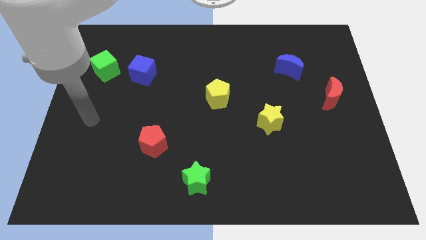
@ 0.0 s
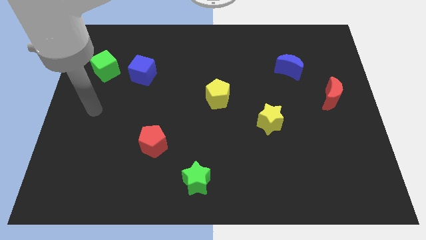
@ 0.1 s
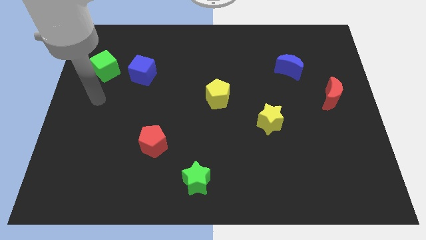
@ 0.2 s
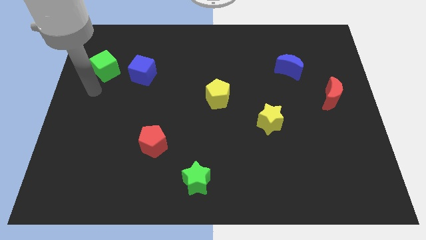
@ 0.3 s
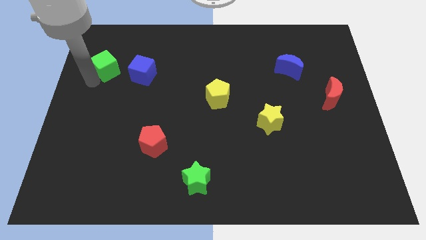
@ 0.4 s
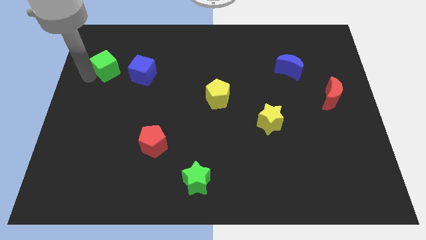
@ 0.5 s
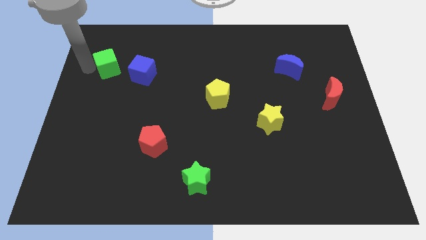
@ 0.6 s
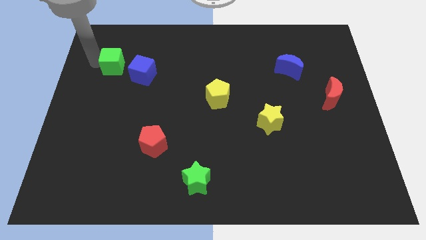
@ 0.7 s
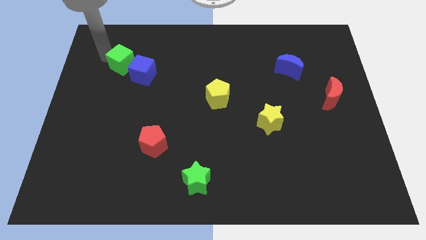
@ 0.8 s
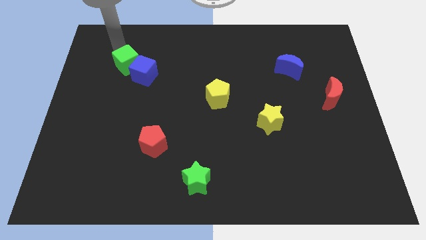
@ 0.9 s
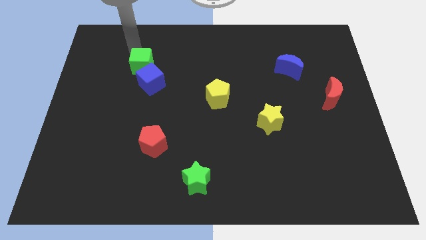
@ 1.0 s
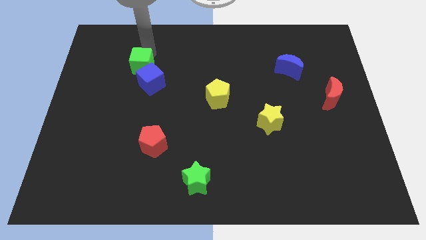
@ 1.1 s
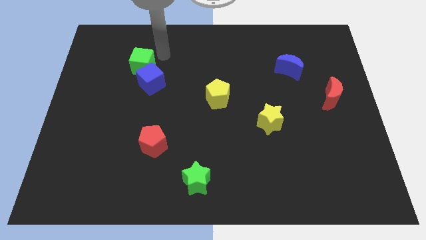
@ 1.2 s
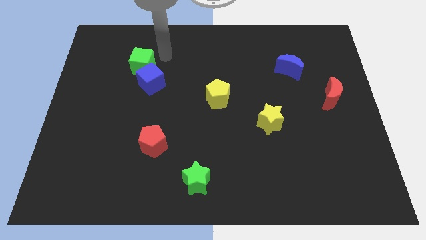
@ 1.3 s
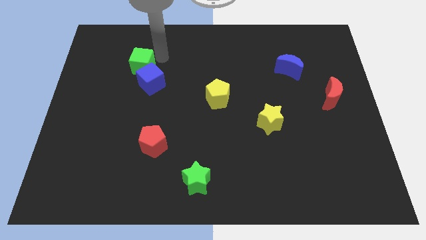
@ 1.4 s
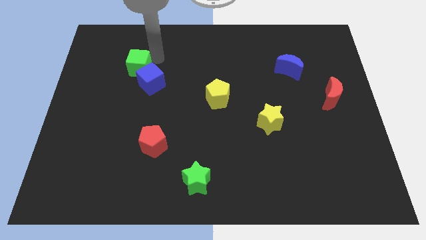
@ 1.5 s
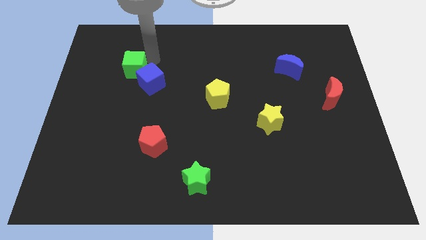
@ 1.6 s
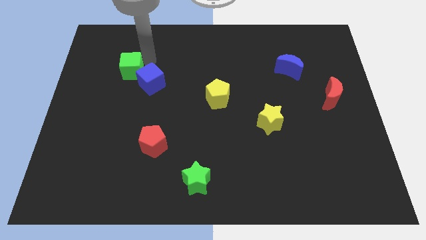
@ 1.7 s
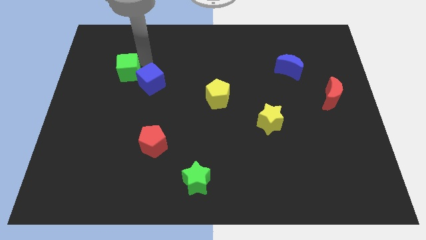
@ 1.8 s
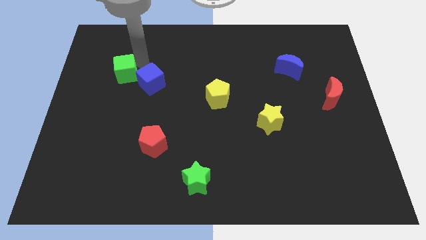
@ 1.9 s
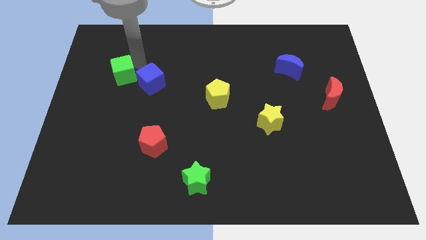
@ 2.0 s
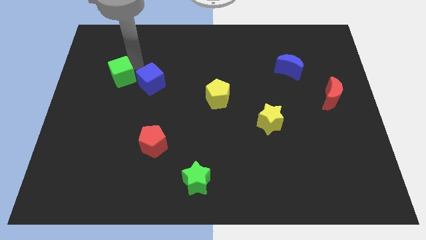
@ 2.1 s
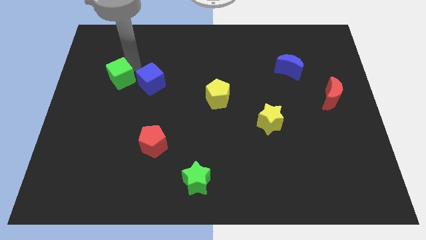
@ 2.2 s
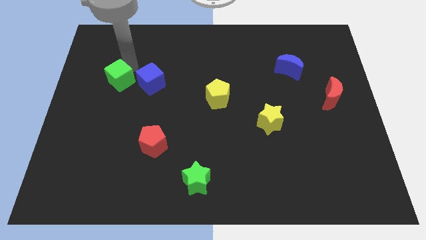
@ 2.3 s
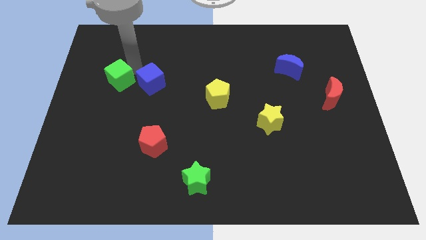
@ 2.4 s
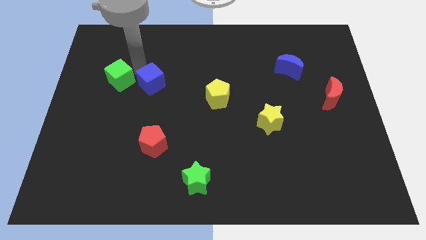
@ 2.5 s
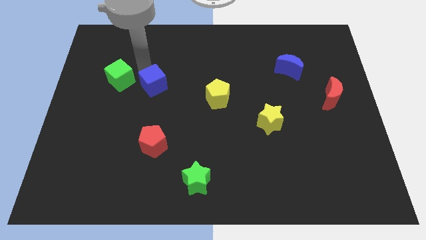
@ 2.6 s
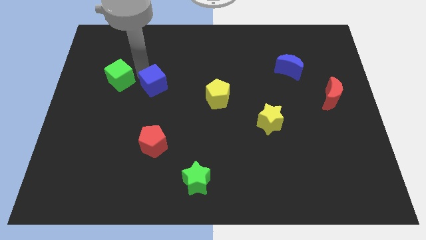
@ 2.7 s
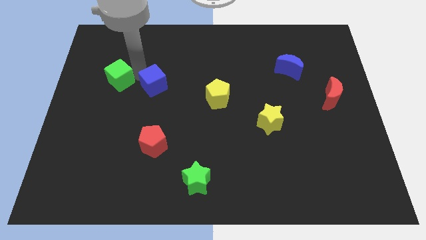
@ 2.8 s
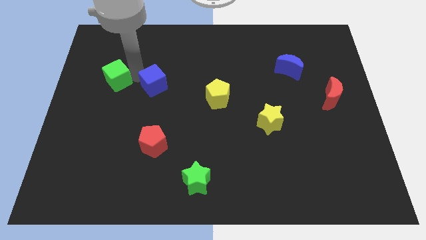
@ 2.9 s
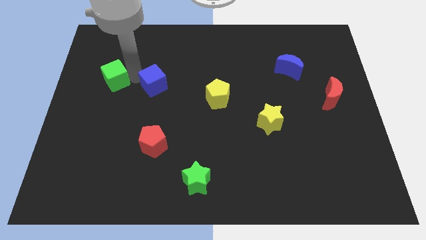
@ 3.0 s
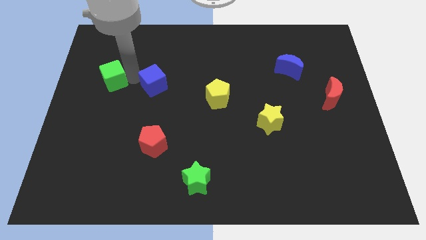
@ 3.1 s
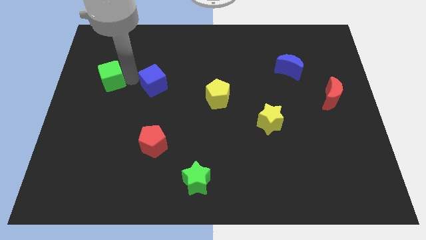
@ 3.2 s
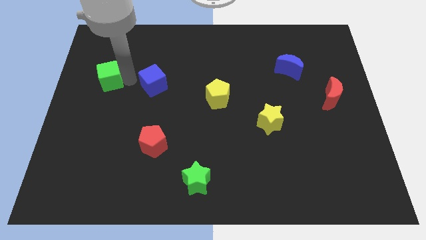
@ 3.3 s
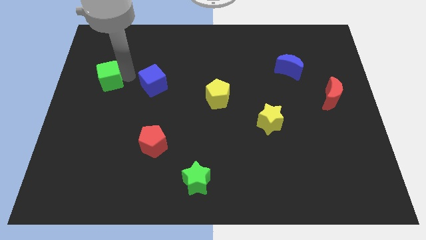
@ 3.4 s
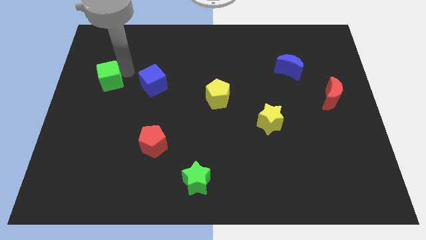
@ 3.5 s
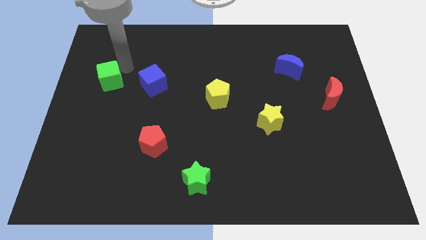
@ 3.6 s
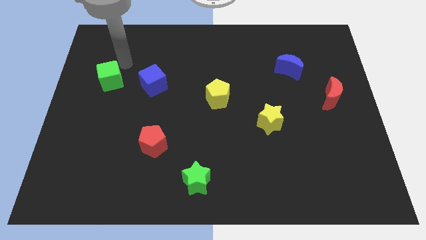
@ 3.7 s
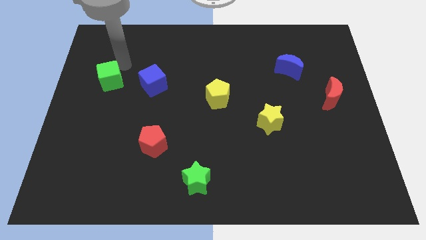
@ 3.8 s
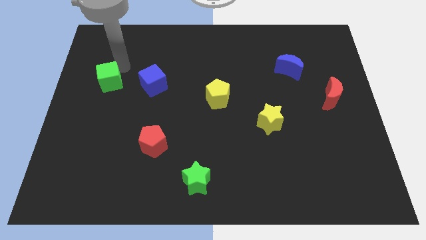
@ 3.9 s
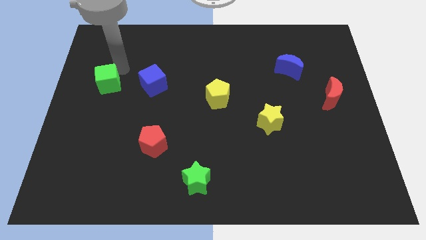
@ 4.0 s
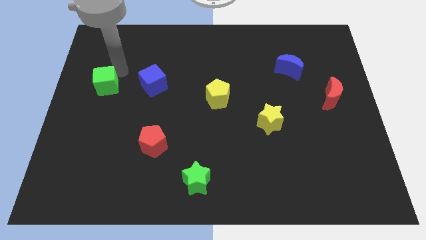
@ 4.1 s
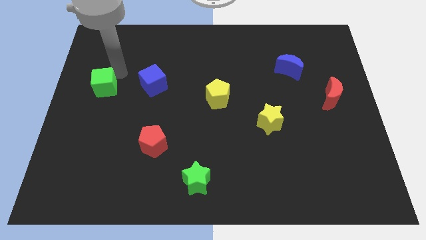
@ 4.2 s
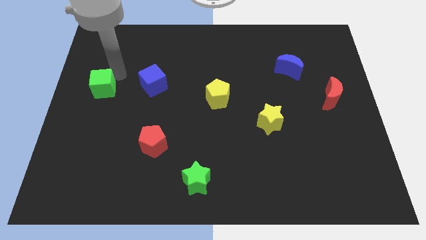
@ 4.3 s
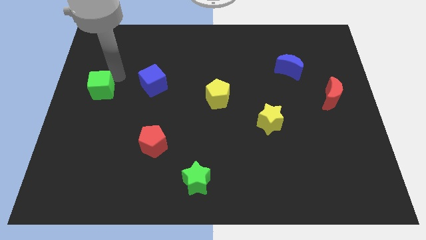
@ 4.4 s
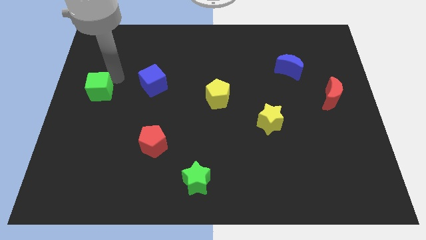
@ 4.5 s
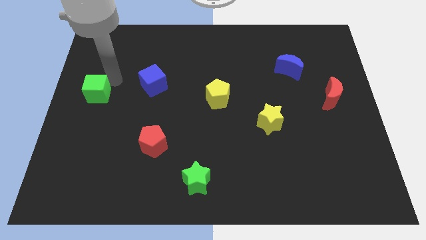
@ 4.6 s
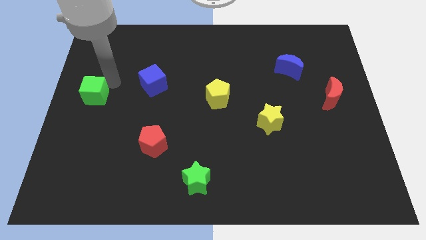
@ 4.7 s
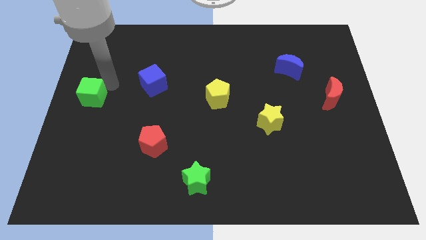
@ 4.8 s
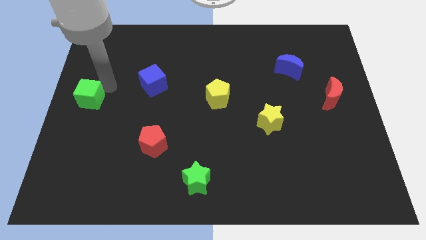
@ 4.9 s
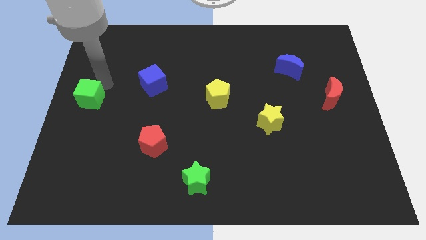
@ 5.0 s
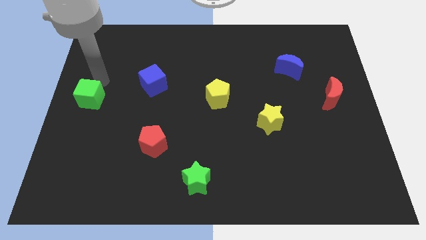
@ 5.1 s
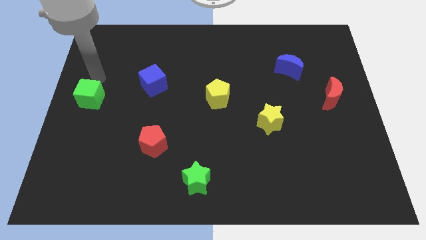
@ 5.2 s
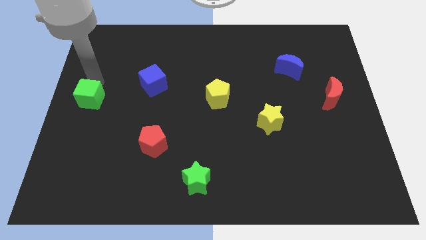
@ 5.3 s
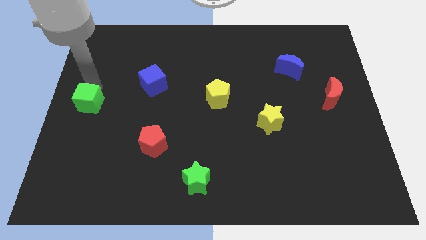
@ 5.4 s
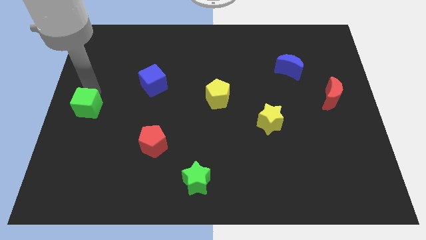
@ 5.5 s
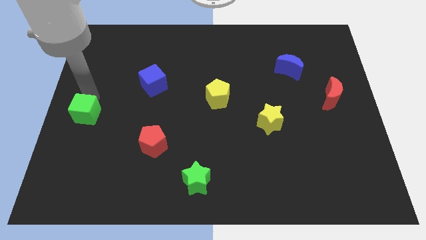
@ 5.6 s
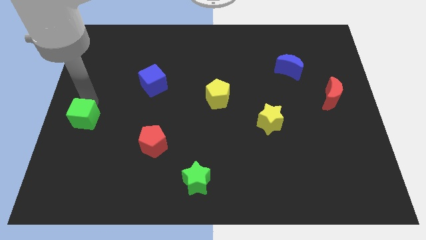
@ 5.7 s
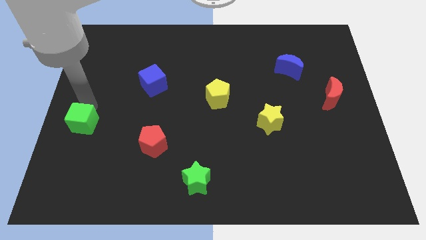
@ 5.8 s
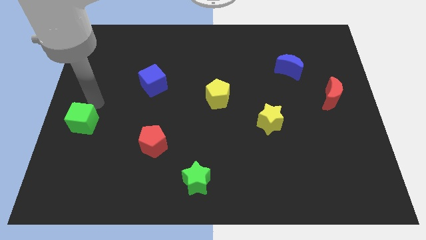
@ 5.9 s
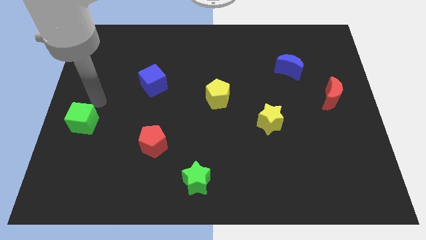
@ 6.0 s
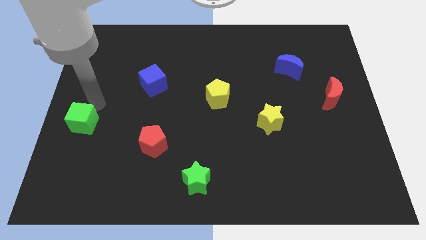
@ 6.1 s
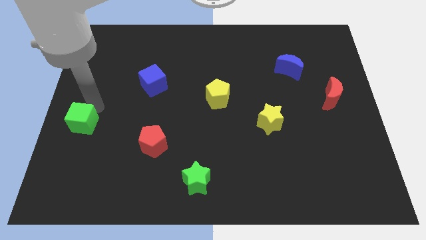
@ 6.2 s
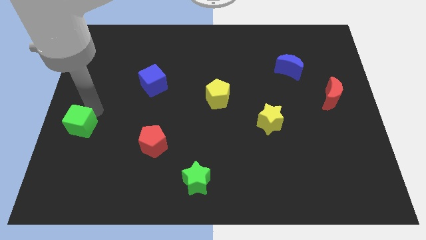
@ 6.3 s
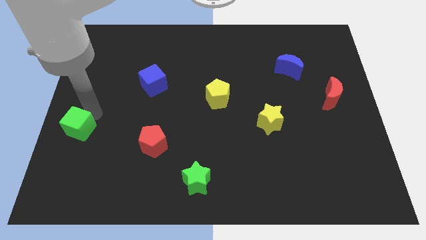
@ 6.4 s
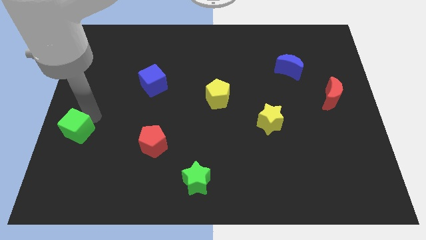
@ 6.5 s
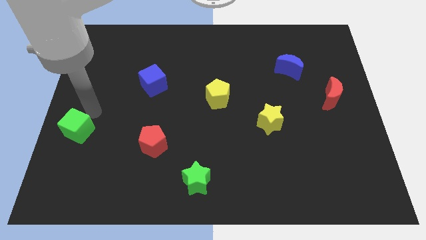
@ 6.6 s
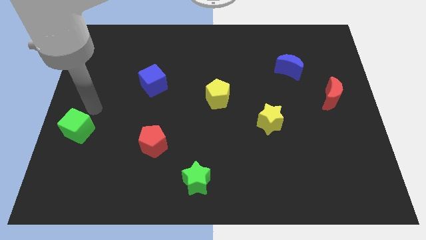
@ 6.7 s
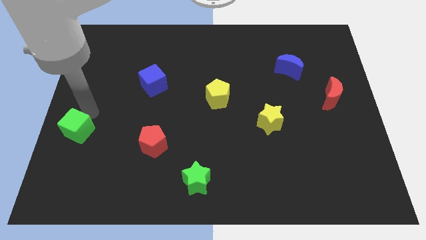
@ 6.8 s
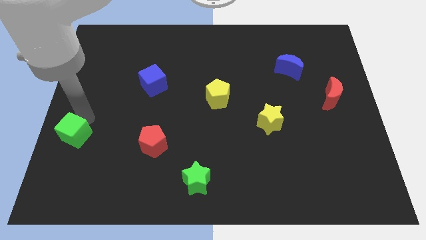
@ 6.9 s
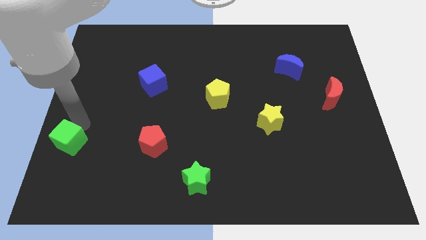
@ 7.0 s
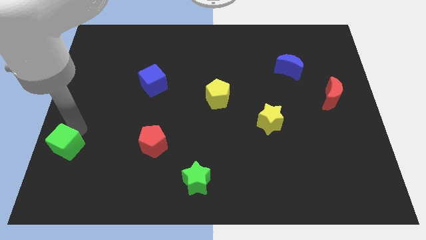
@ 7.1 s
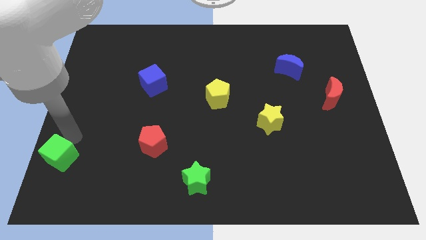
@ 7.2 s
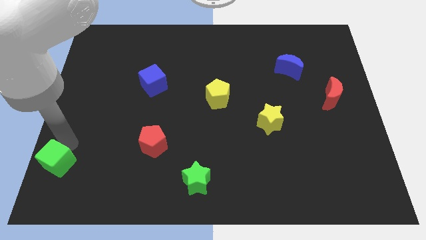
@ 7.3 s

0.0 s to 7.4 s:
move the green cube to the bottom left of the board

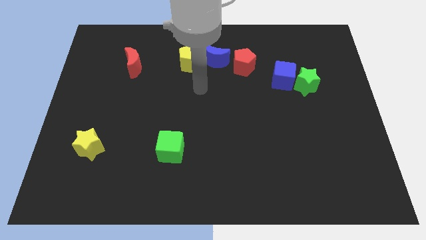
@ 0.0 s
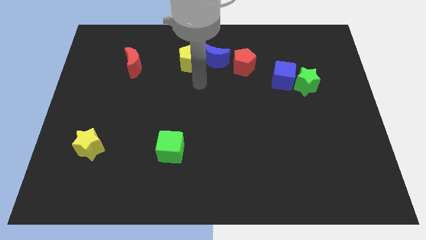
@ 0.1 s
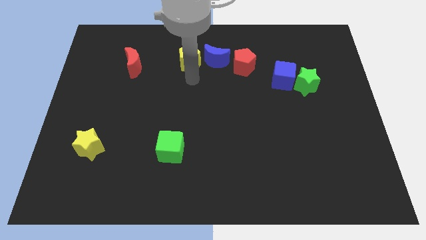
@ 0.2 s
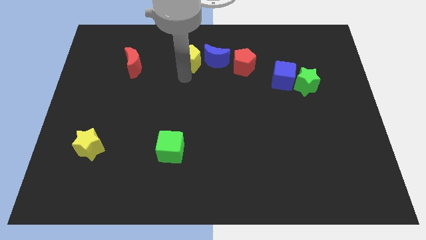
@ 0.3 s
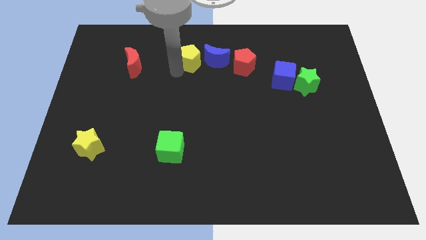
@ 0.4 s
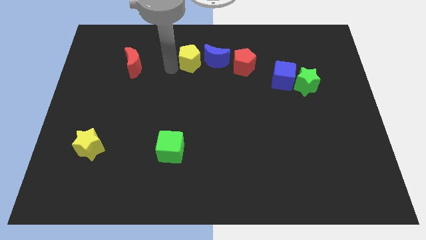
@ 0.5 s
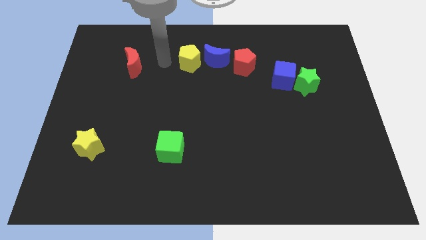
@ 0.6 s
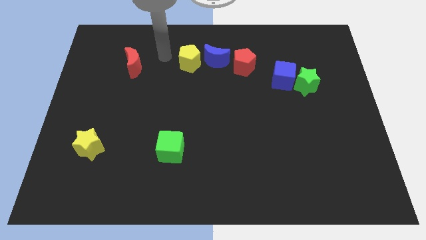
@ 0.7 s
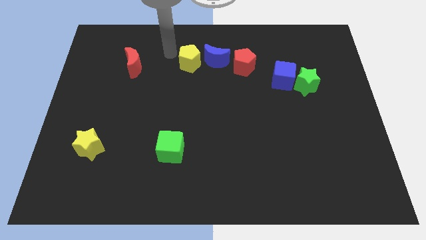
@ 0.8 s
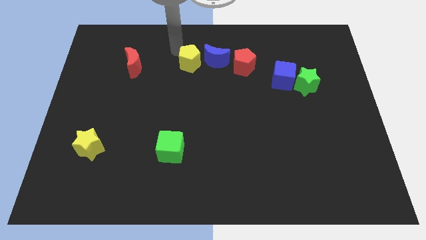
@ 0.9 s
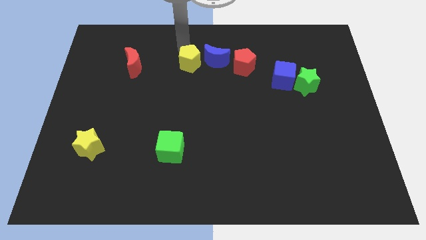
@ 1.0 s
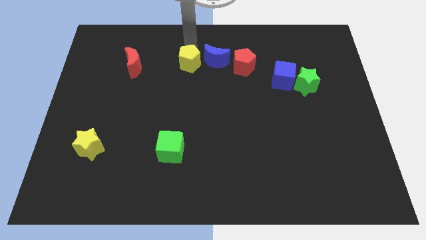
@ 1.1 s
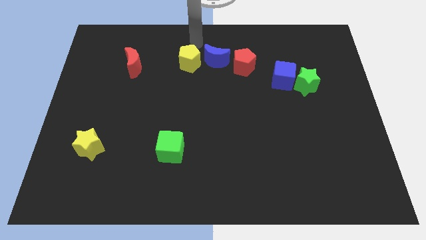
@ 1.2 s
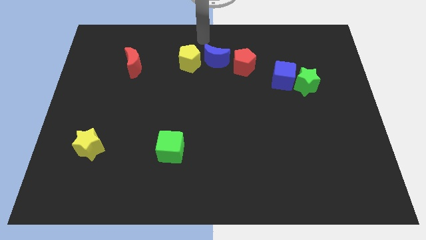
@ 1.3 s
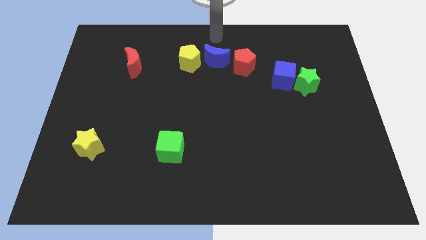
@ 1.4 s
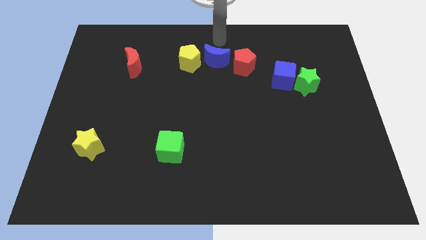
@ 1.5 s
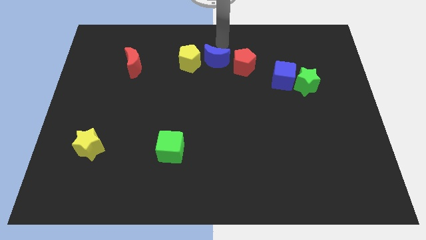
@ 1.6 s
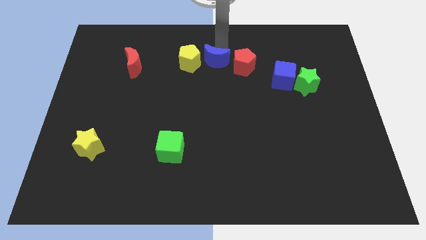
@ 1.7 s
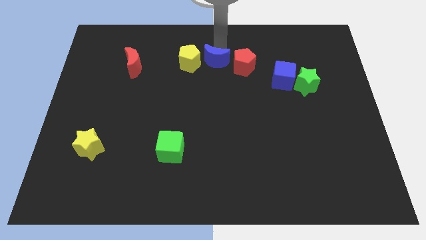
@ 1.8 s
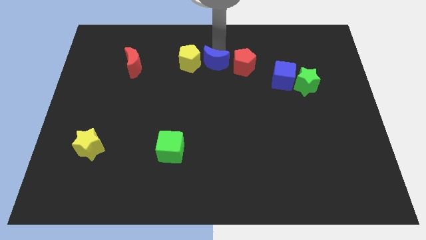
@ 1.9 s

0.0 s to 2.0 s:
slide the blue moon to the middle
